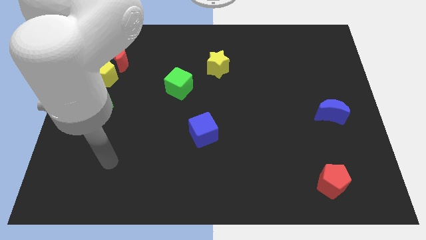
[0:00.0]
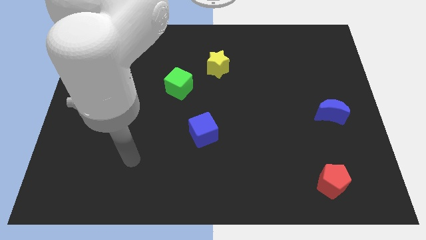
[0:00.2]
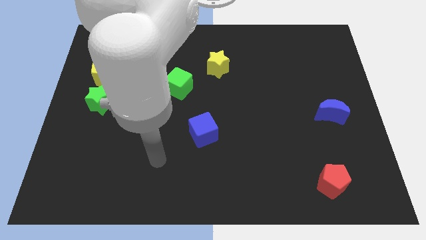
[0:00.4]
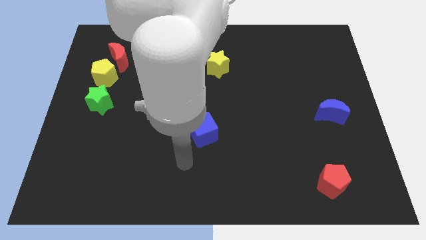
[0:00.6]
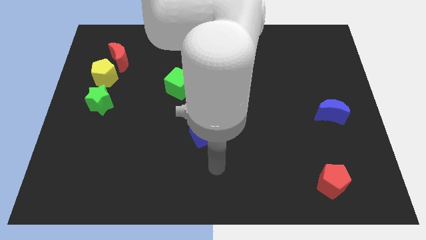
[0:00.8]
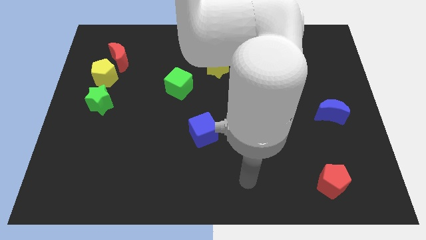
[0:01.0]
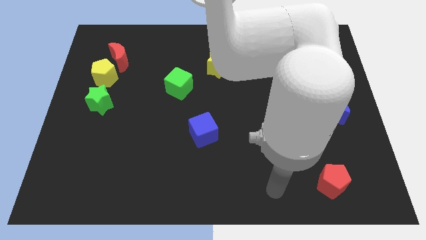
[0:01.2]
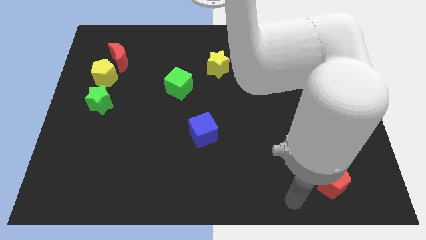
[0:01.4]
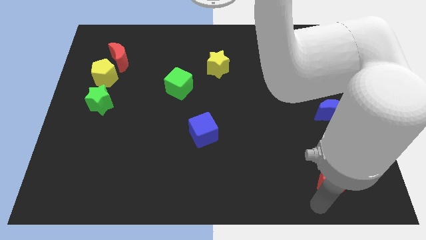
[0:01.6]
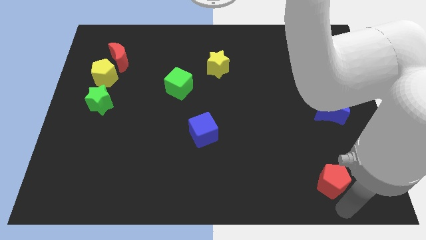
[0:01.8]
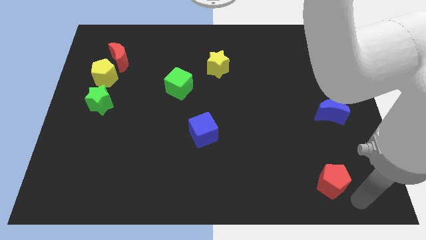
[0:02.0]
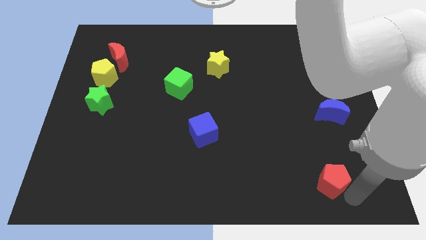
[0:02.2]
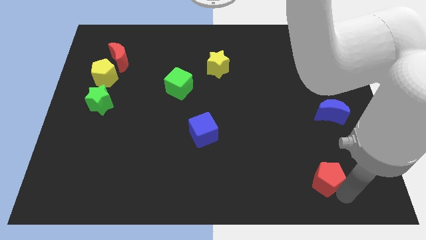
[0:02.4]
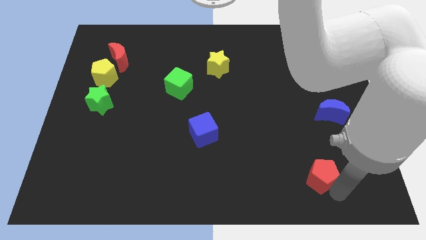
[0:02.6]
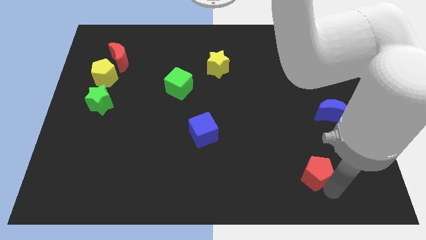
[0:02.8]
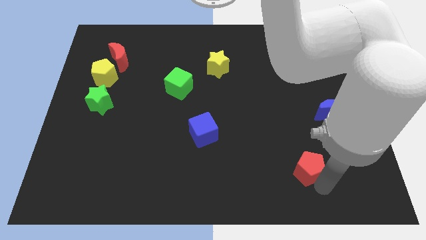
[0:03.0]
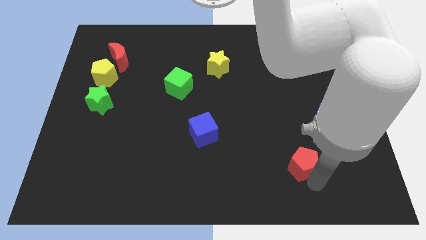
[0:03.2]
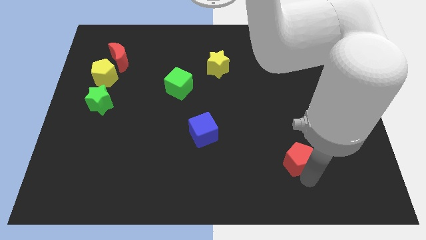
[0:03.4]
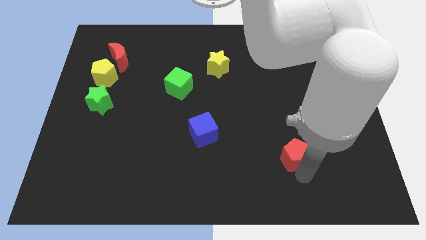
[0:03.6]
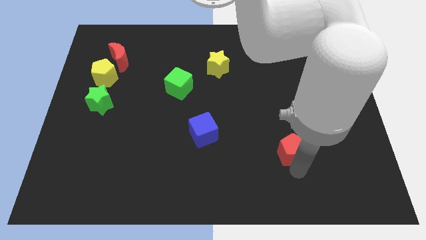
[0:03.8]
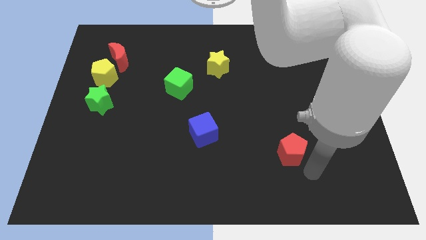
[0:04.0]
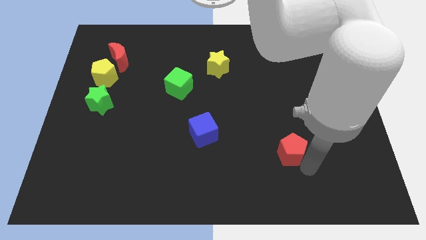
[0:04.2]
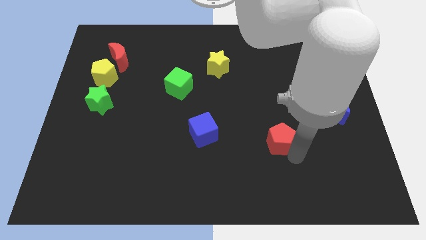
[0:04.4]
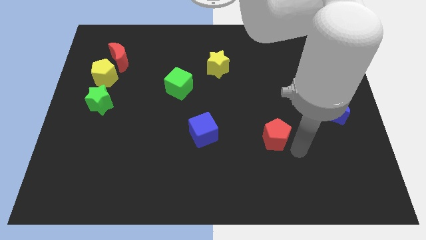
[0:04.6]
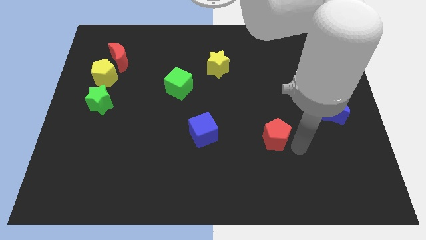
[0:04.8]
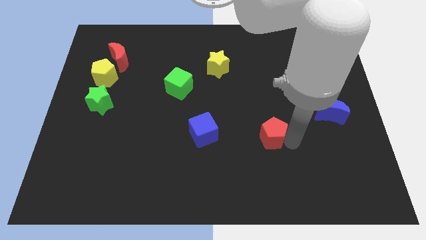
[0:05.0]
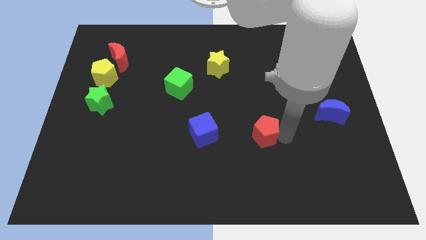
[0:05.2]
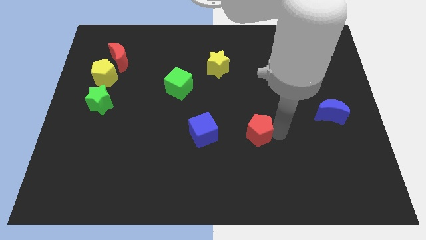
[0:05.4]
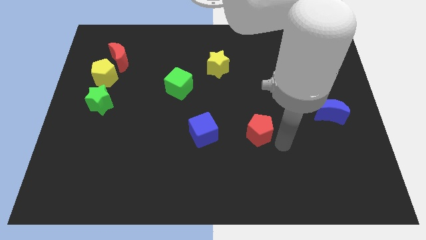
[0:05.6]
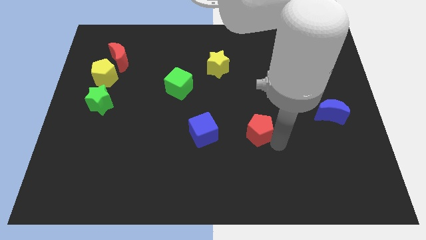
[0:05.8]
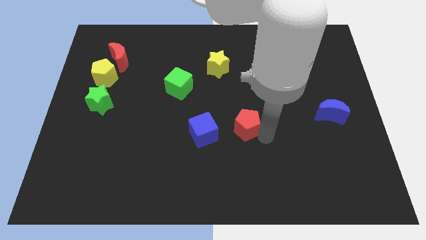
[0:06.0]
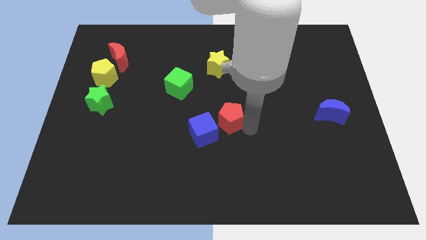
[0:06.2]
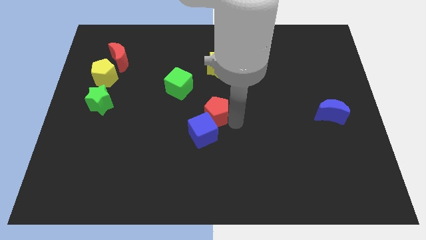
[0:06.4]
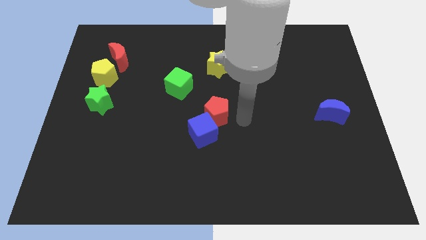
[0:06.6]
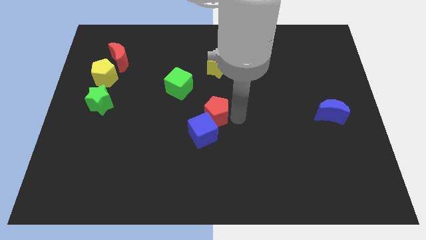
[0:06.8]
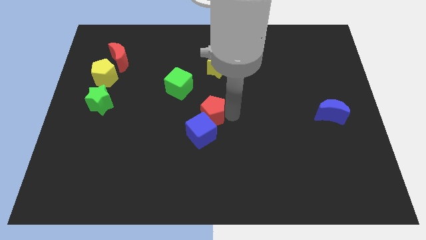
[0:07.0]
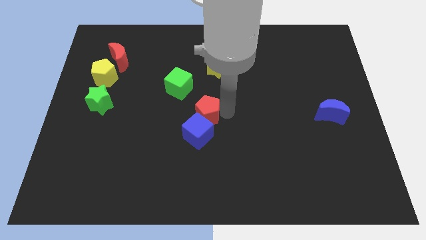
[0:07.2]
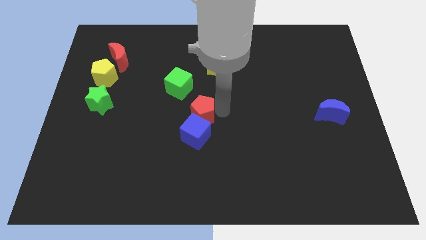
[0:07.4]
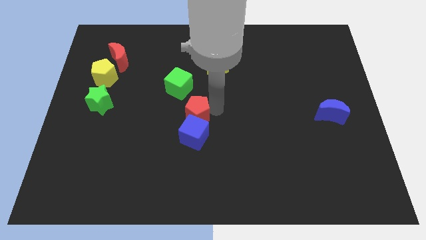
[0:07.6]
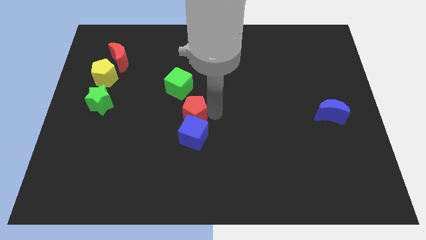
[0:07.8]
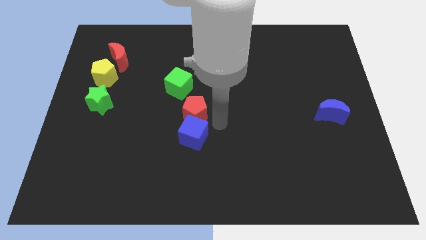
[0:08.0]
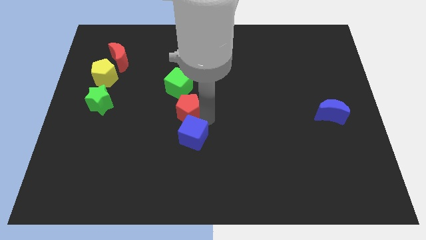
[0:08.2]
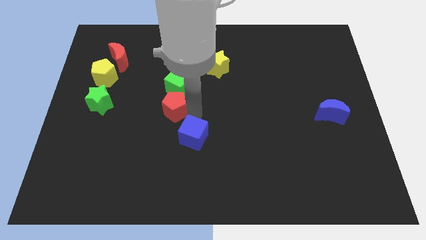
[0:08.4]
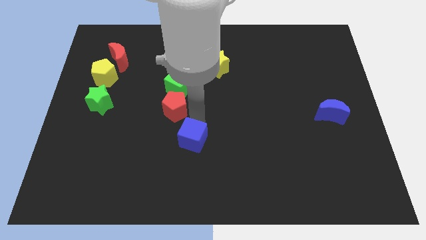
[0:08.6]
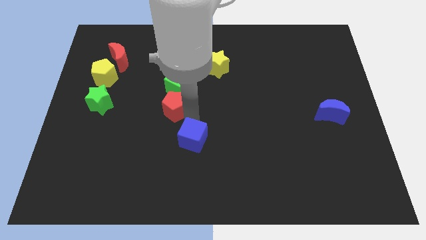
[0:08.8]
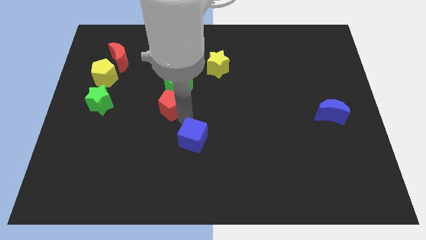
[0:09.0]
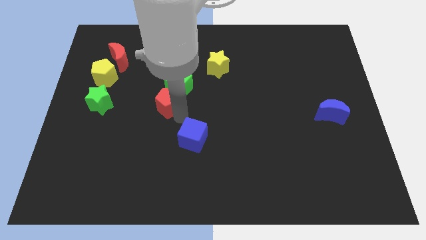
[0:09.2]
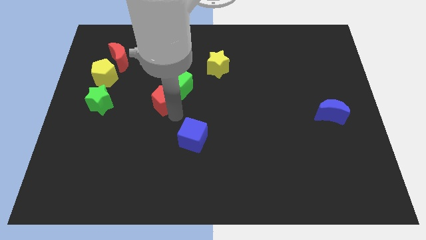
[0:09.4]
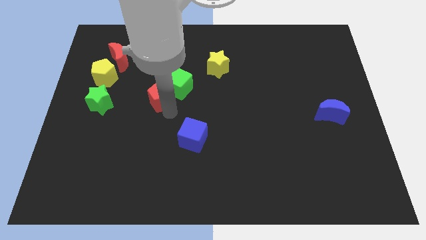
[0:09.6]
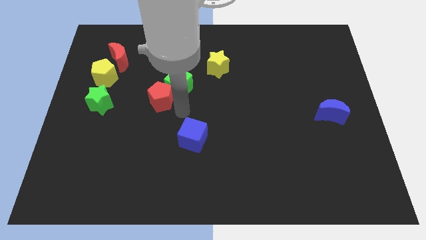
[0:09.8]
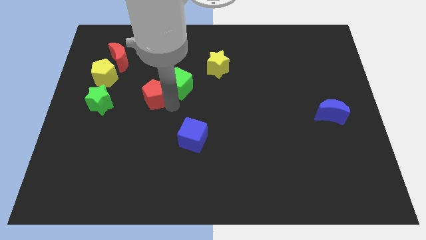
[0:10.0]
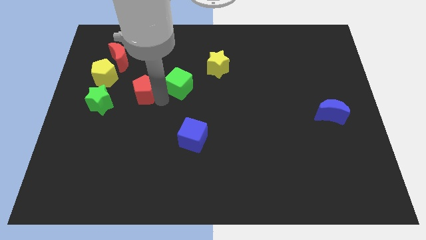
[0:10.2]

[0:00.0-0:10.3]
push the red pentagon to the top right side of the green star

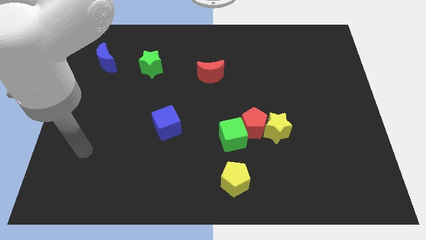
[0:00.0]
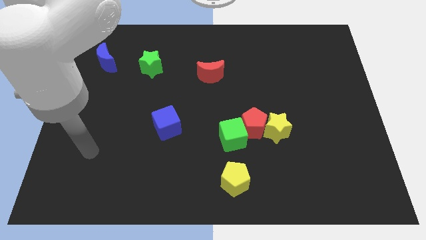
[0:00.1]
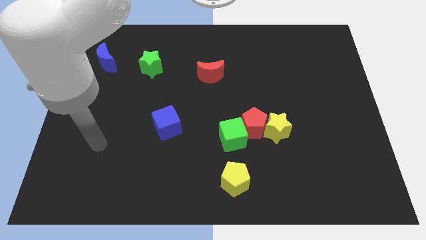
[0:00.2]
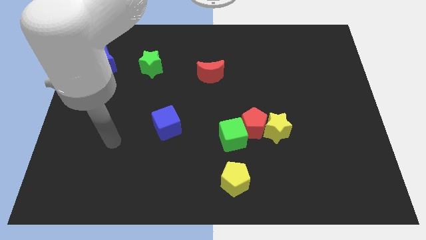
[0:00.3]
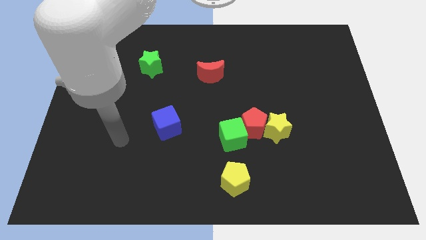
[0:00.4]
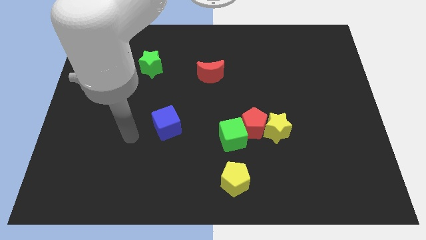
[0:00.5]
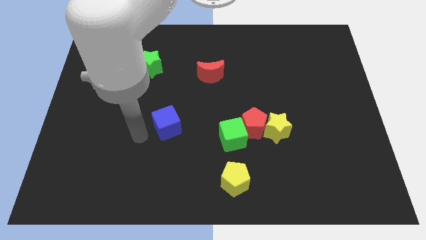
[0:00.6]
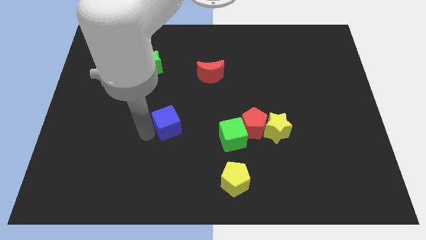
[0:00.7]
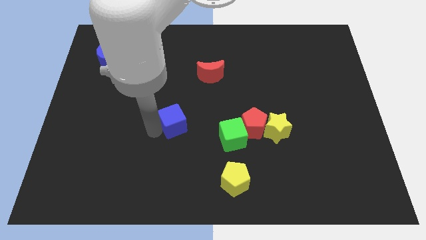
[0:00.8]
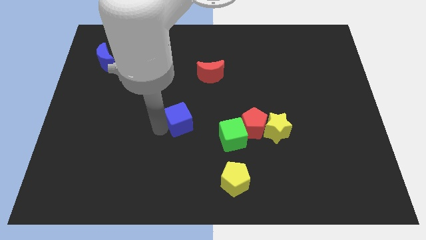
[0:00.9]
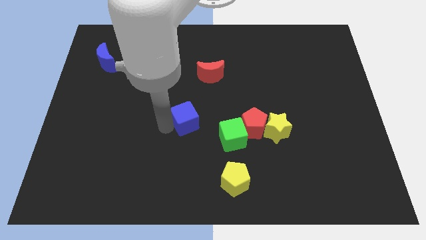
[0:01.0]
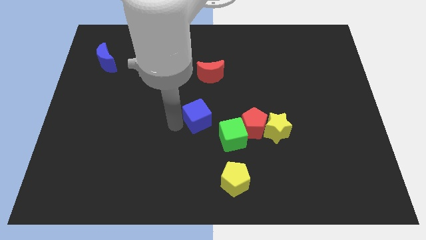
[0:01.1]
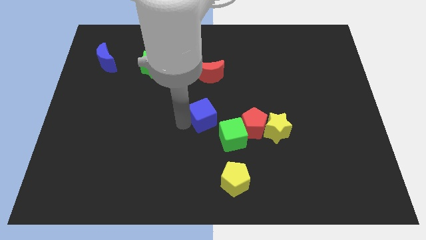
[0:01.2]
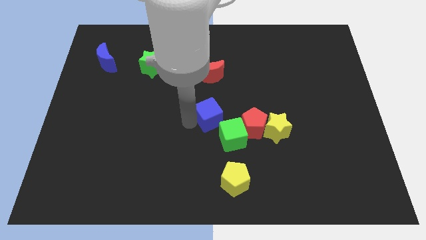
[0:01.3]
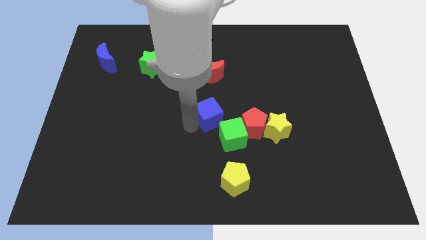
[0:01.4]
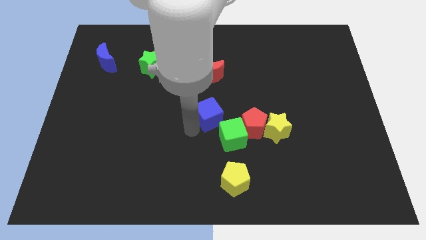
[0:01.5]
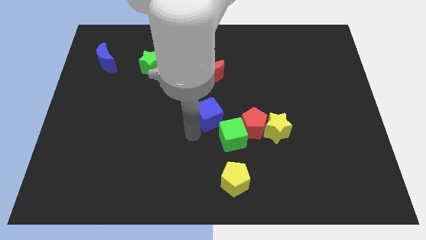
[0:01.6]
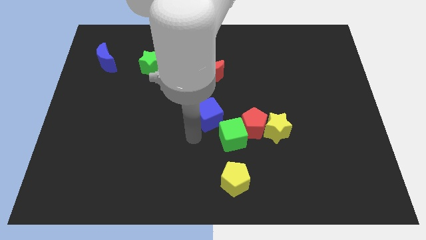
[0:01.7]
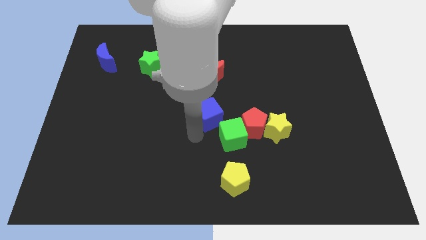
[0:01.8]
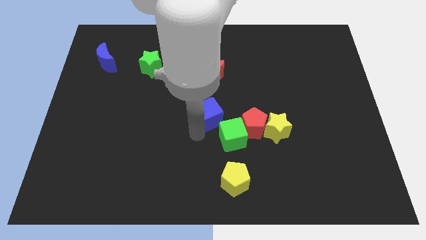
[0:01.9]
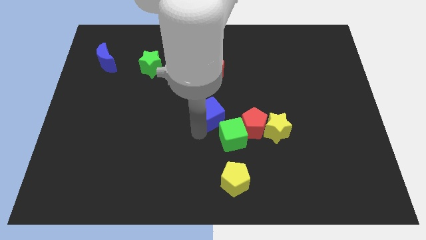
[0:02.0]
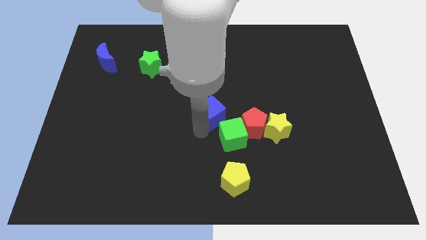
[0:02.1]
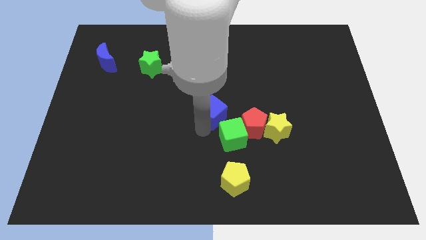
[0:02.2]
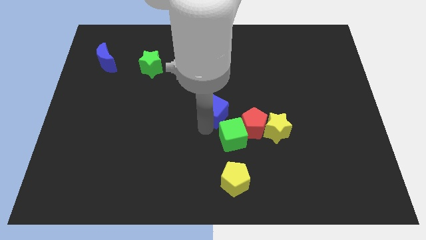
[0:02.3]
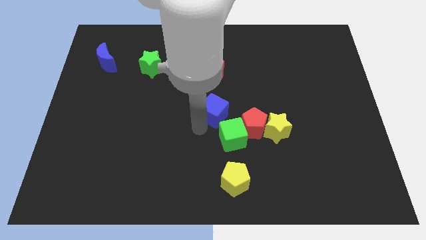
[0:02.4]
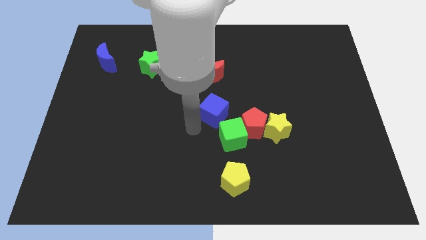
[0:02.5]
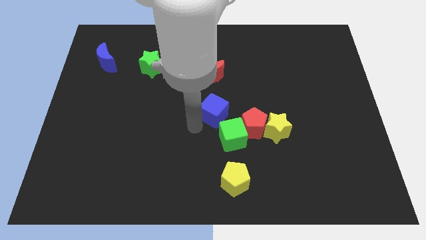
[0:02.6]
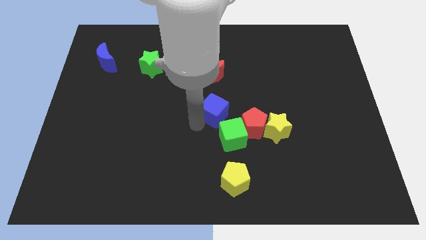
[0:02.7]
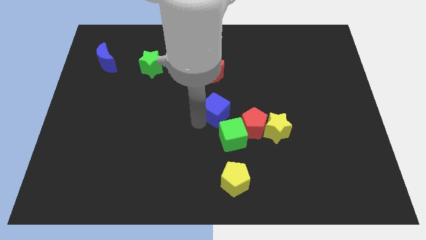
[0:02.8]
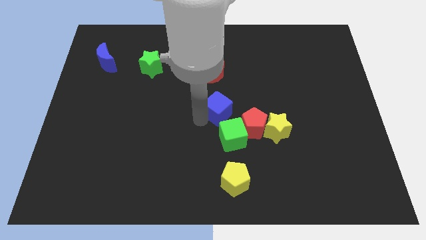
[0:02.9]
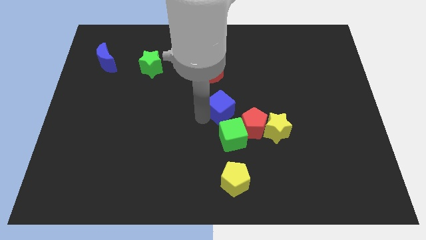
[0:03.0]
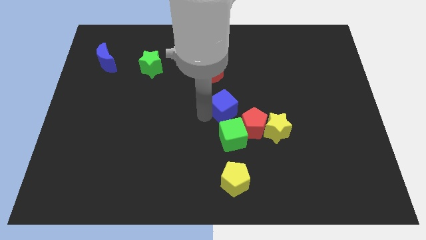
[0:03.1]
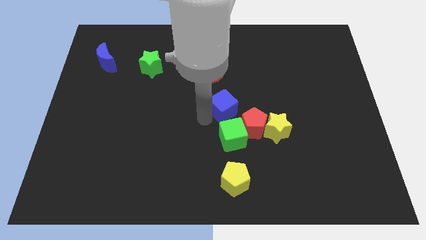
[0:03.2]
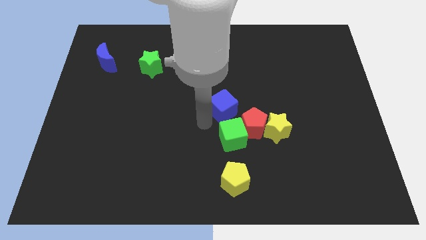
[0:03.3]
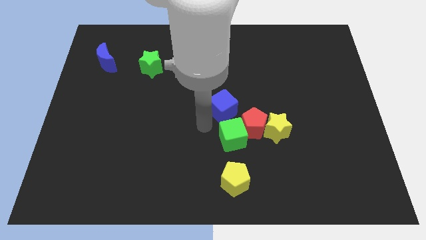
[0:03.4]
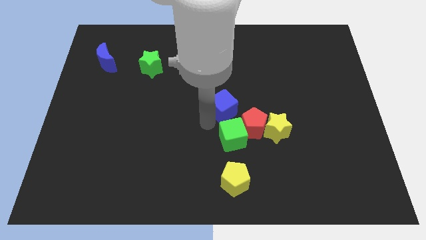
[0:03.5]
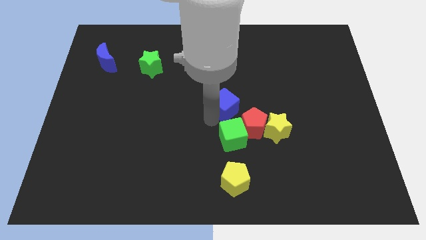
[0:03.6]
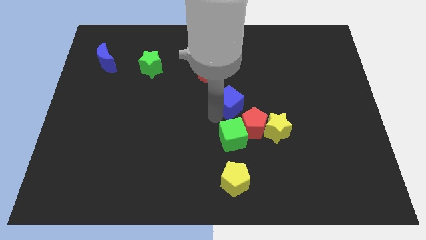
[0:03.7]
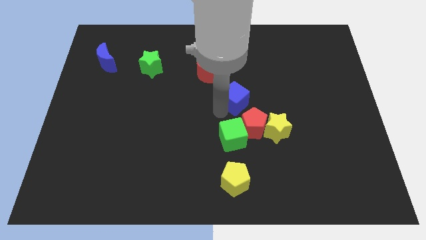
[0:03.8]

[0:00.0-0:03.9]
move the blue cube to the top side of the red pentagon
